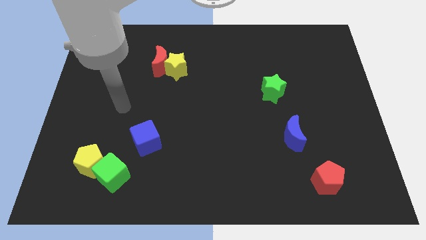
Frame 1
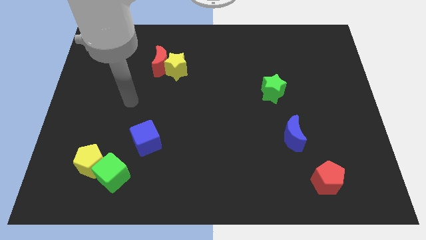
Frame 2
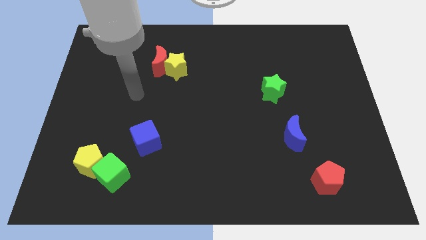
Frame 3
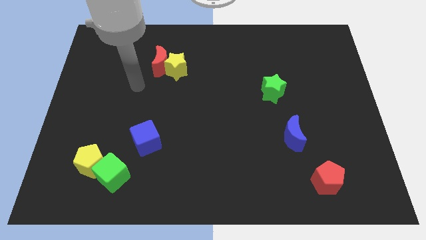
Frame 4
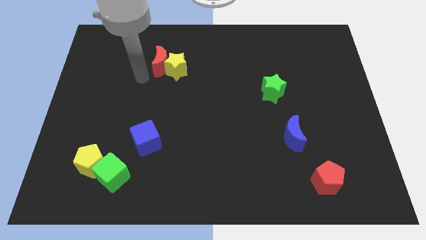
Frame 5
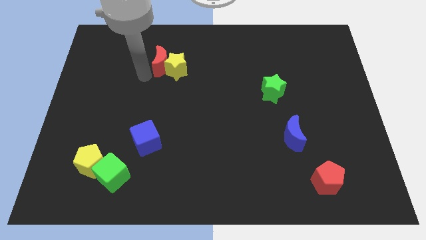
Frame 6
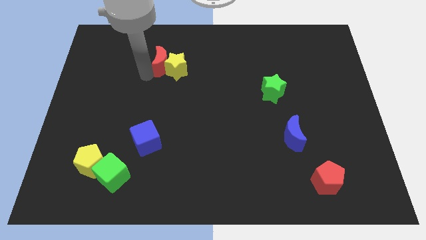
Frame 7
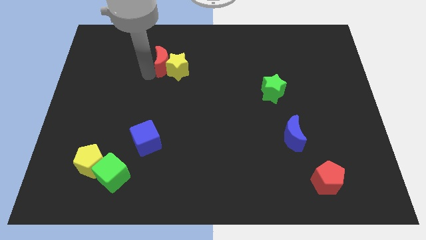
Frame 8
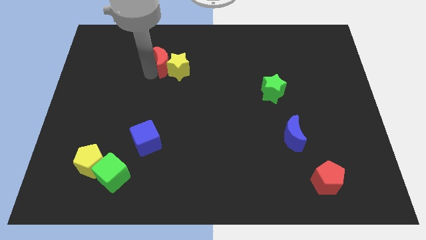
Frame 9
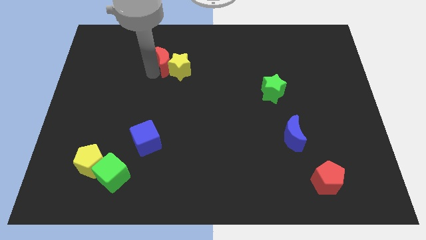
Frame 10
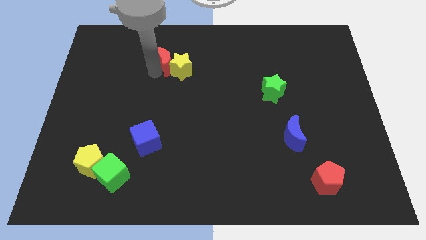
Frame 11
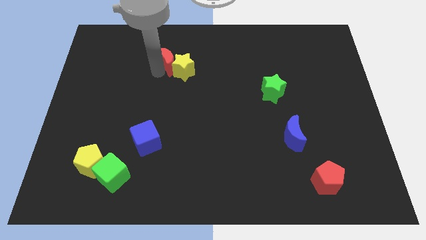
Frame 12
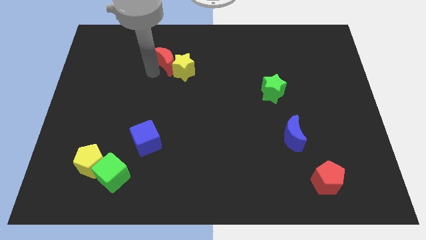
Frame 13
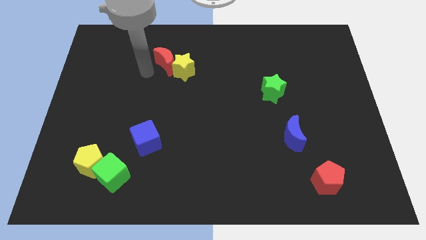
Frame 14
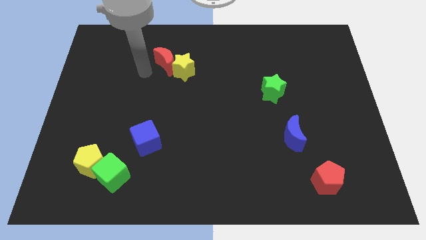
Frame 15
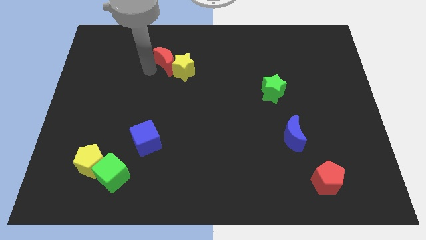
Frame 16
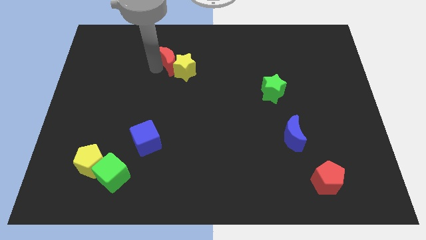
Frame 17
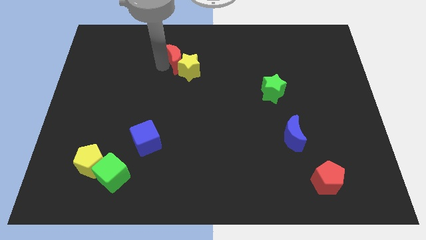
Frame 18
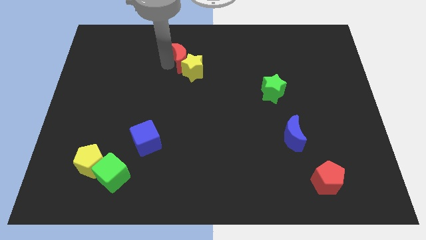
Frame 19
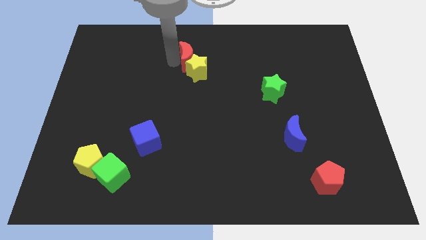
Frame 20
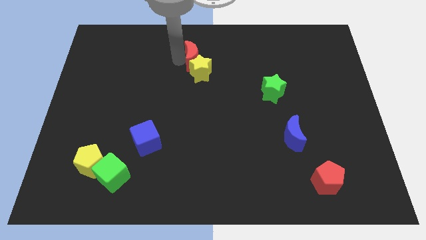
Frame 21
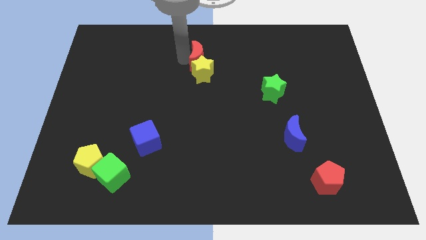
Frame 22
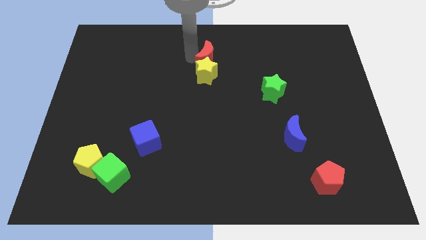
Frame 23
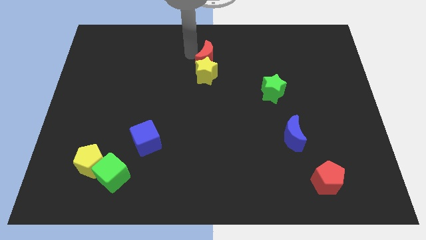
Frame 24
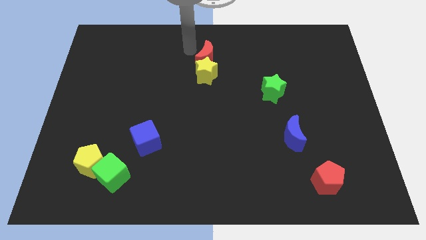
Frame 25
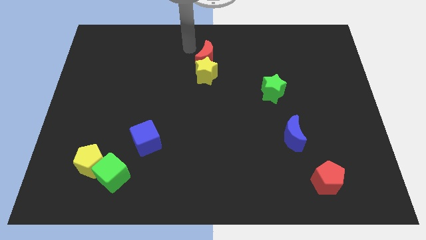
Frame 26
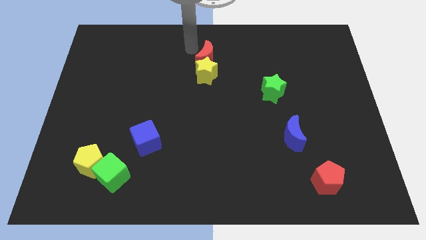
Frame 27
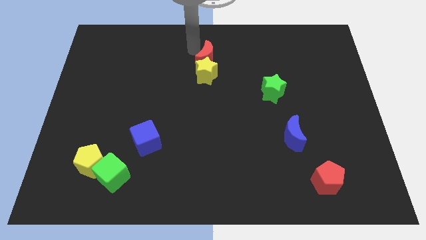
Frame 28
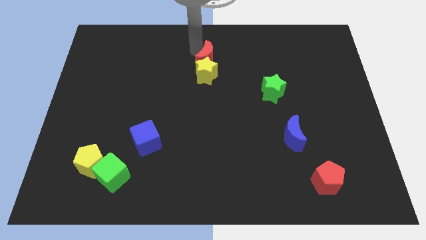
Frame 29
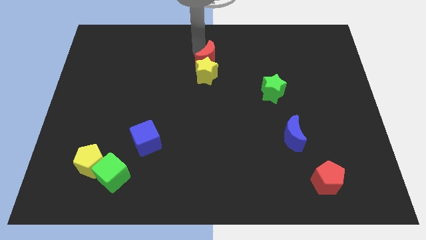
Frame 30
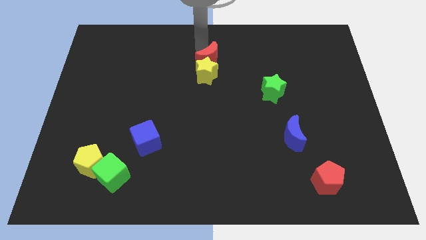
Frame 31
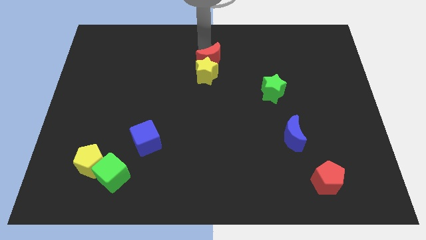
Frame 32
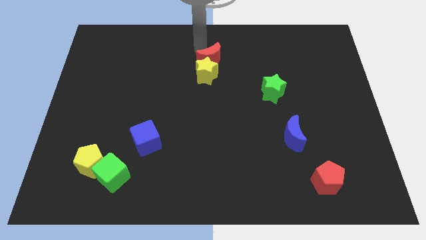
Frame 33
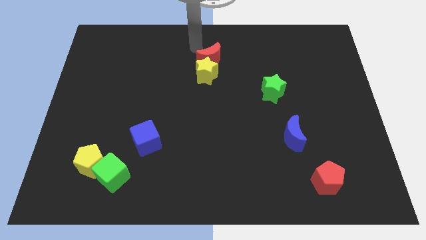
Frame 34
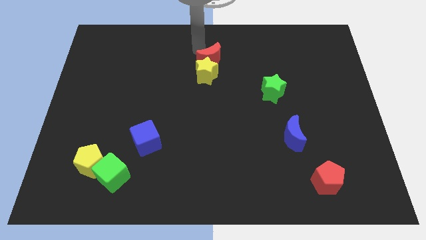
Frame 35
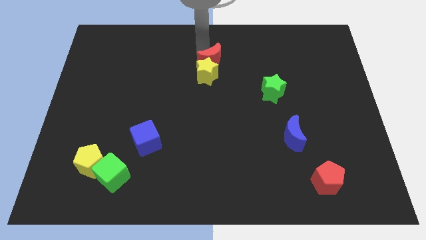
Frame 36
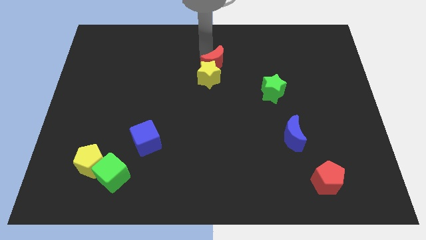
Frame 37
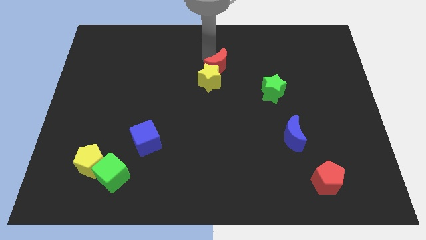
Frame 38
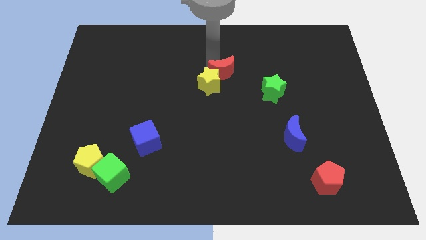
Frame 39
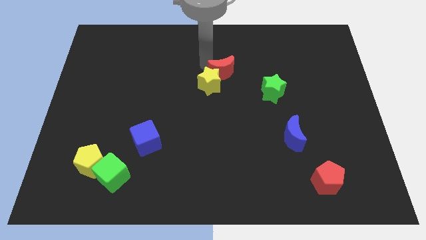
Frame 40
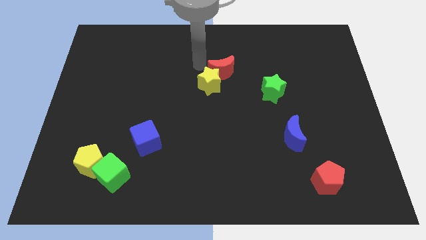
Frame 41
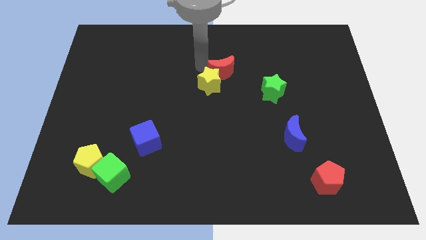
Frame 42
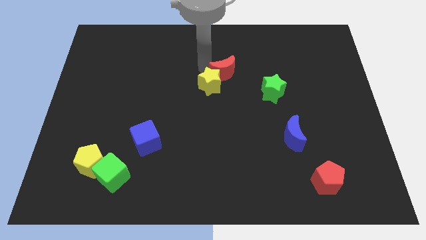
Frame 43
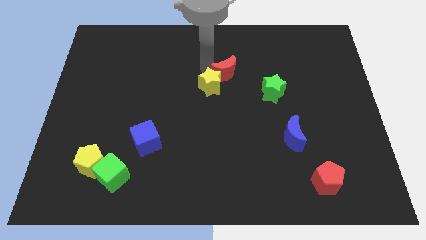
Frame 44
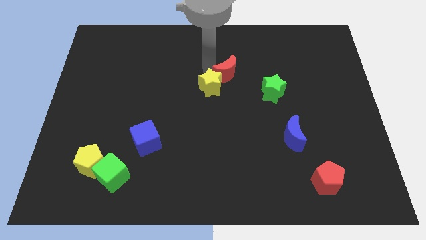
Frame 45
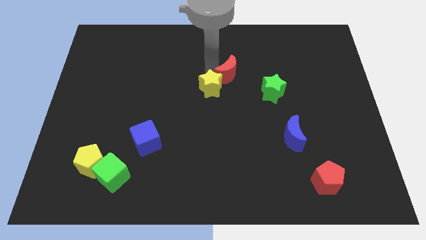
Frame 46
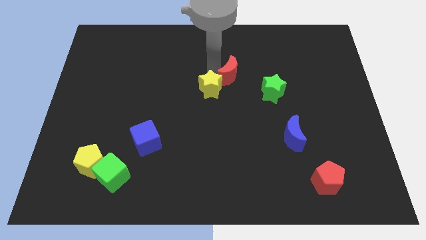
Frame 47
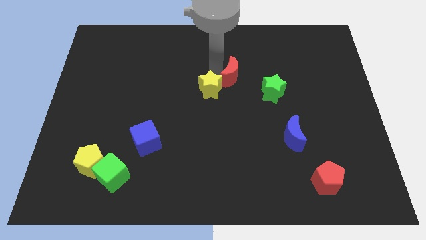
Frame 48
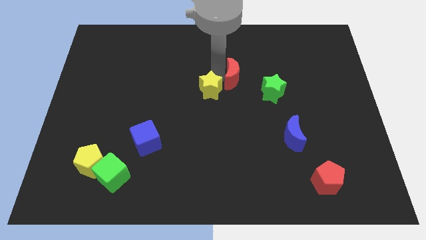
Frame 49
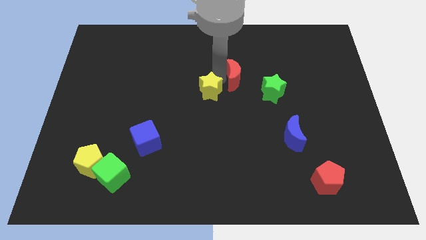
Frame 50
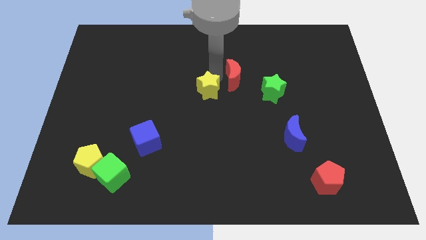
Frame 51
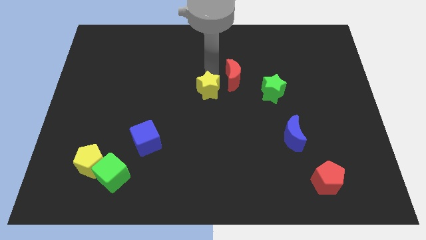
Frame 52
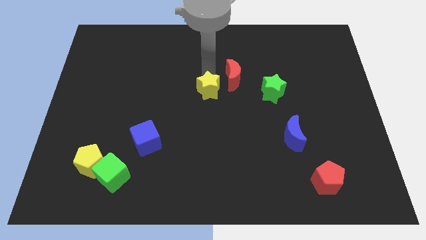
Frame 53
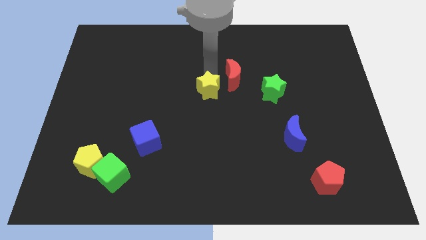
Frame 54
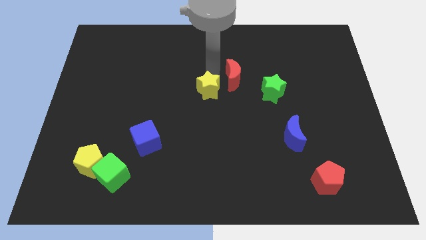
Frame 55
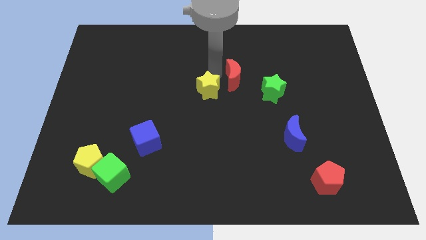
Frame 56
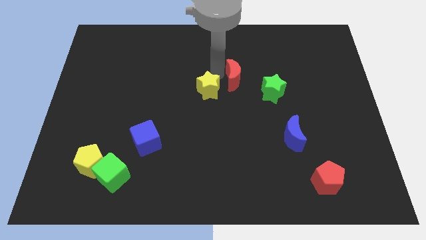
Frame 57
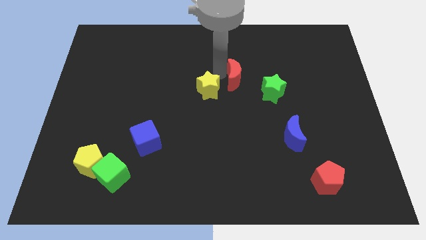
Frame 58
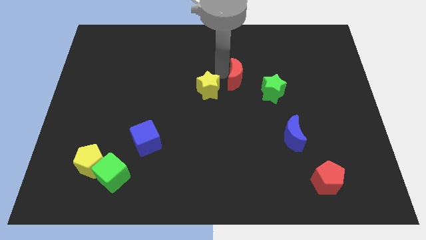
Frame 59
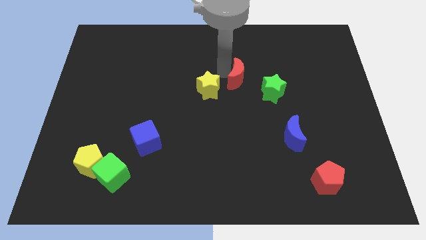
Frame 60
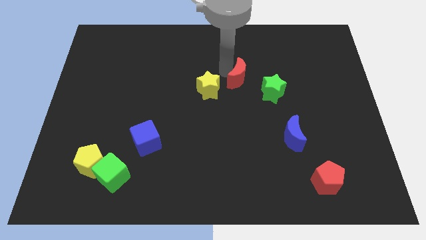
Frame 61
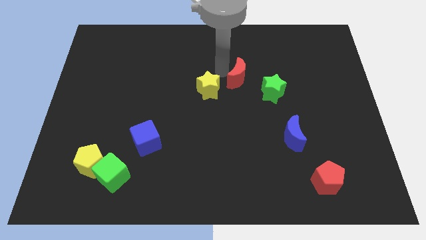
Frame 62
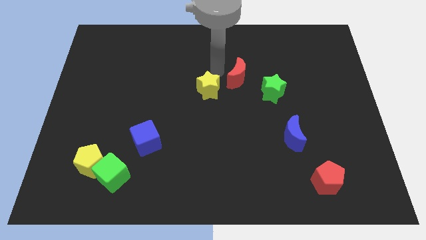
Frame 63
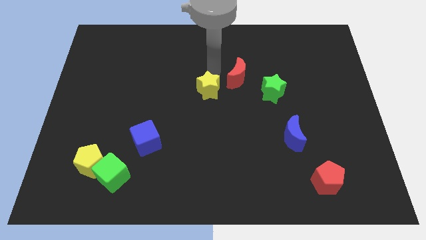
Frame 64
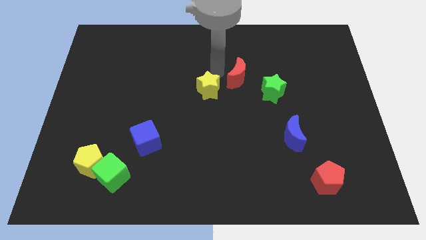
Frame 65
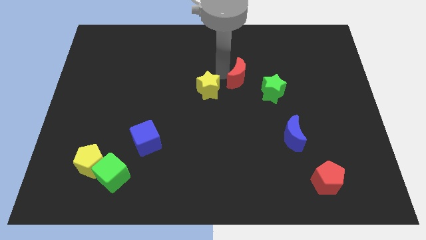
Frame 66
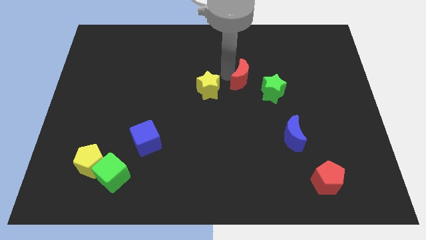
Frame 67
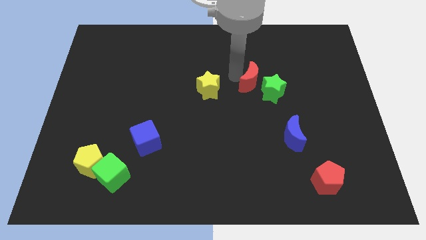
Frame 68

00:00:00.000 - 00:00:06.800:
push the red moon close to the green star

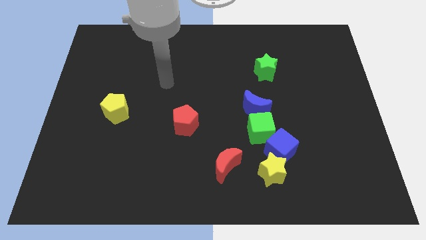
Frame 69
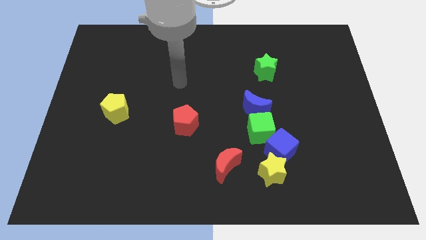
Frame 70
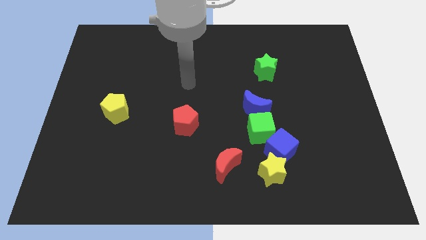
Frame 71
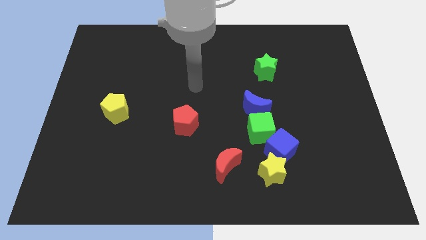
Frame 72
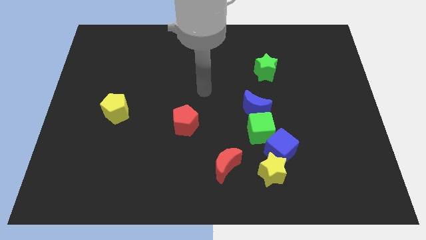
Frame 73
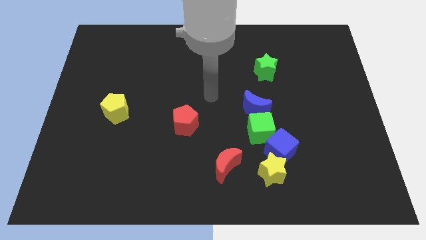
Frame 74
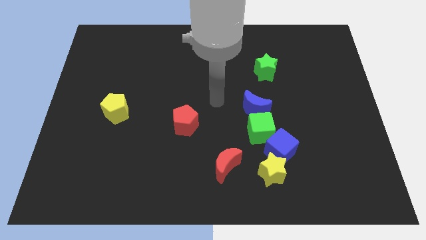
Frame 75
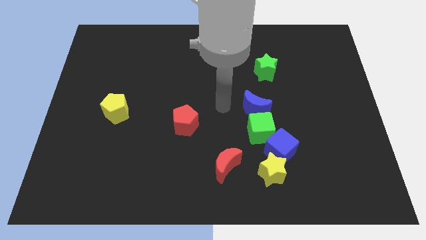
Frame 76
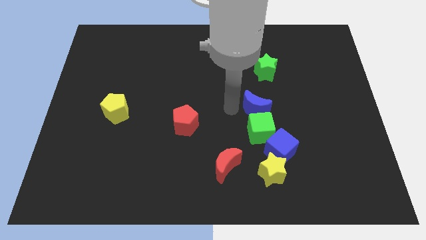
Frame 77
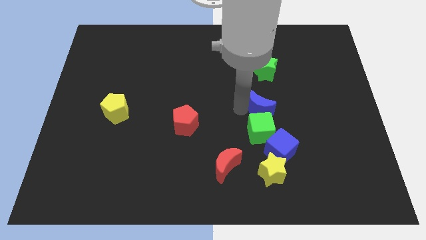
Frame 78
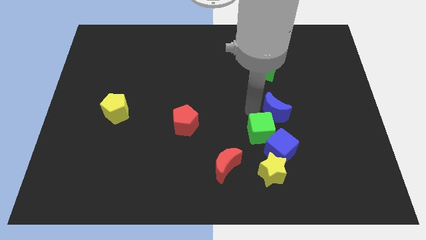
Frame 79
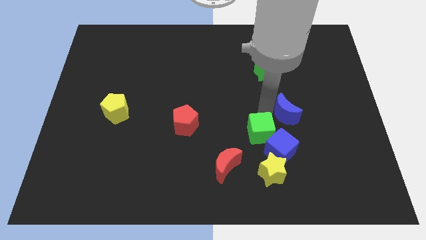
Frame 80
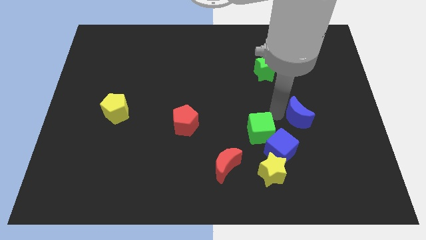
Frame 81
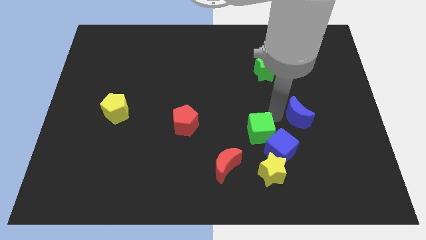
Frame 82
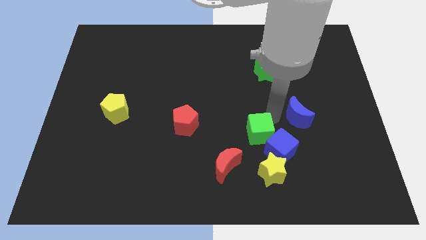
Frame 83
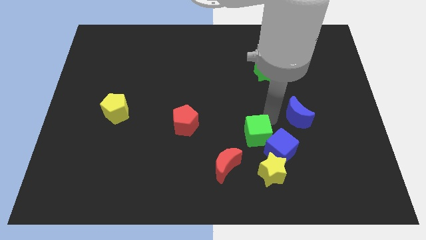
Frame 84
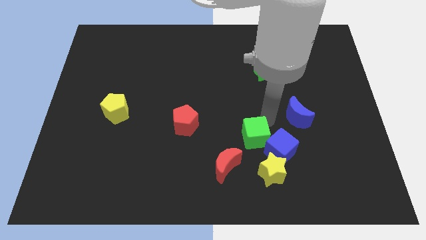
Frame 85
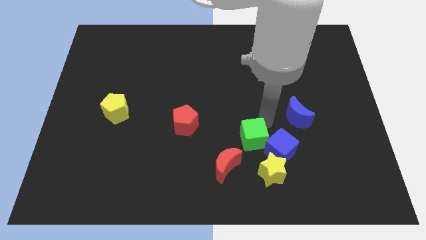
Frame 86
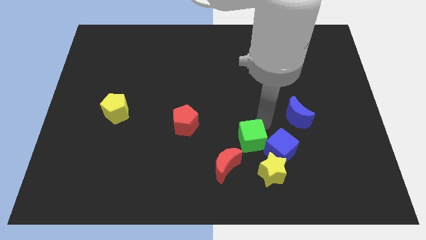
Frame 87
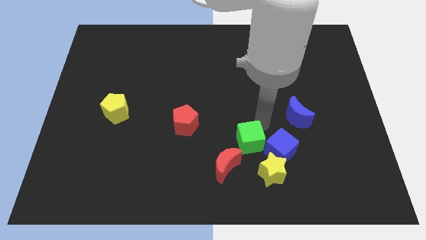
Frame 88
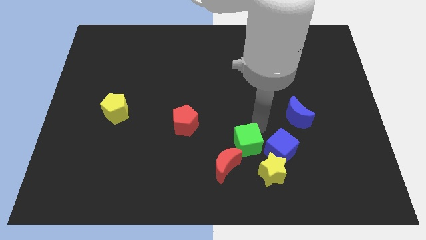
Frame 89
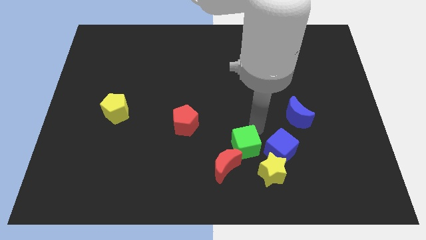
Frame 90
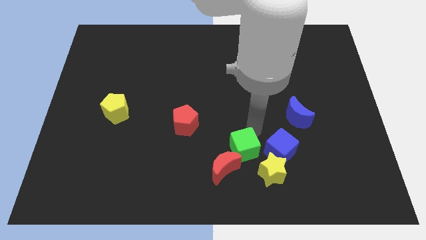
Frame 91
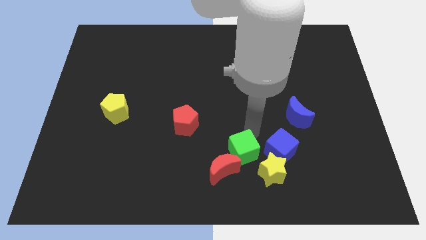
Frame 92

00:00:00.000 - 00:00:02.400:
move the green cube to the red moon
